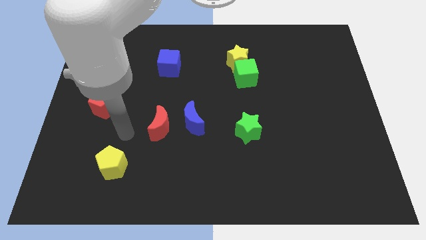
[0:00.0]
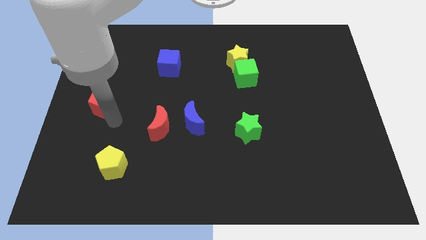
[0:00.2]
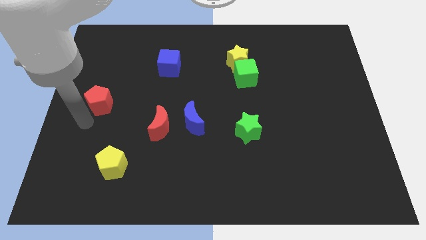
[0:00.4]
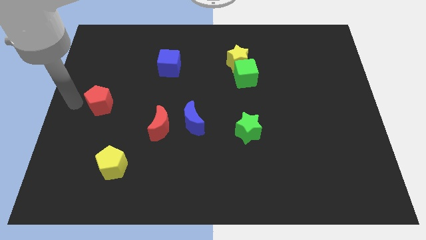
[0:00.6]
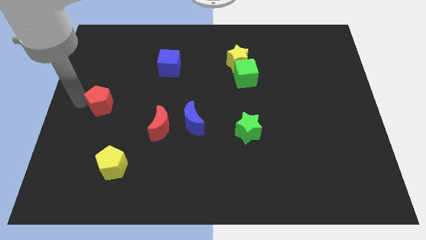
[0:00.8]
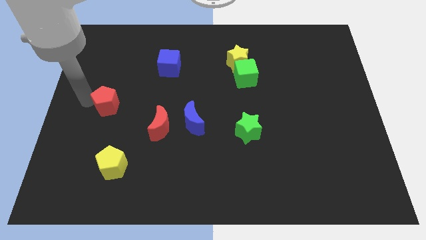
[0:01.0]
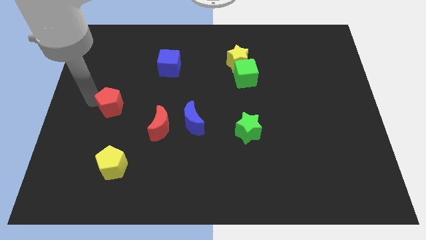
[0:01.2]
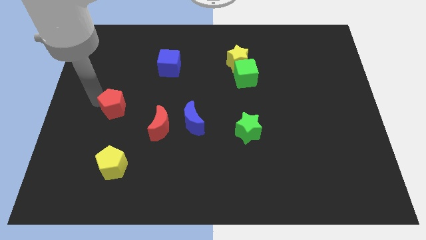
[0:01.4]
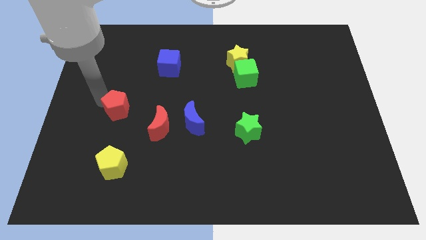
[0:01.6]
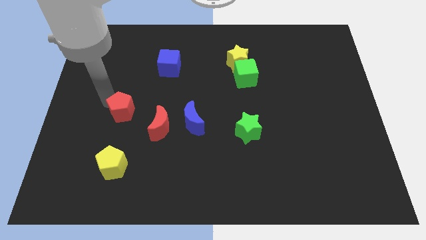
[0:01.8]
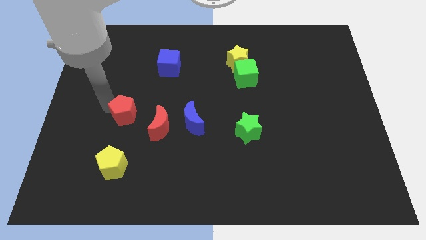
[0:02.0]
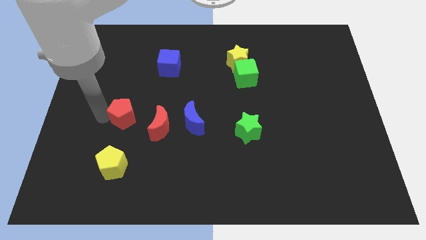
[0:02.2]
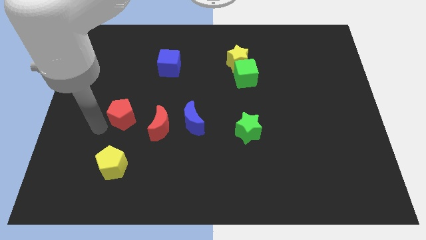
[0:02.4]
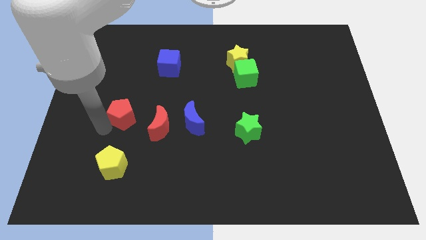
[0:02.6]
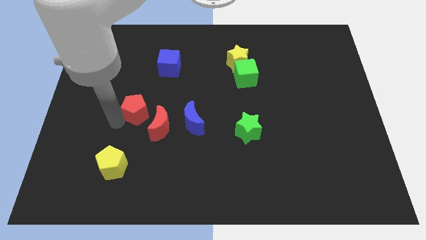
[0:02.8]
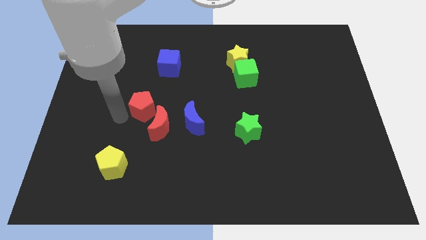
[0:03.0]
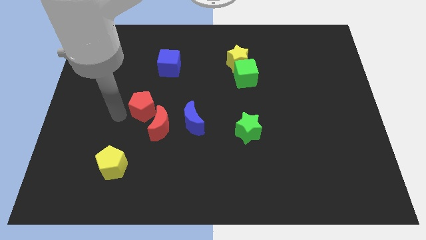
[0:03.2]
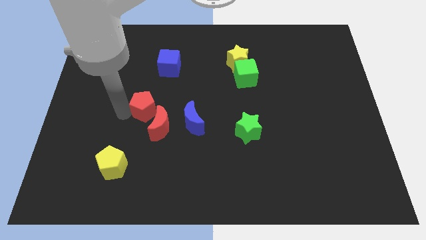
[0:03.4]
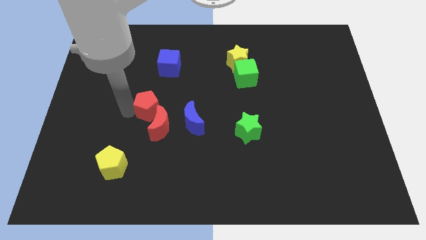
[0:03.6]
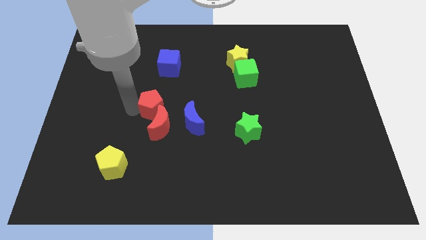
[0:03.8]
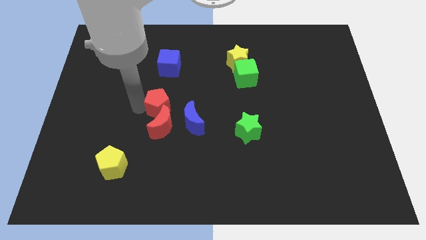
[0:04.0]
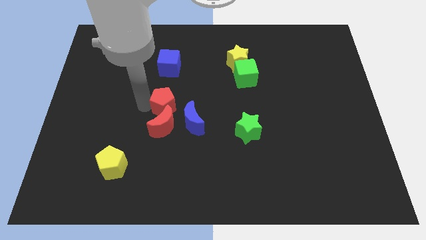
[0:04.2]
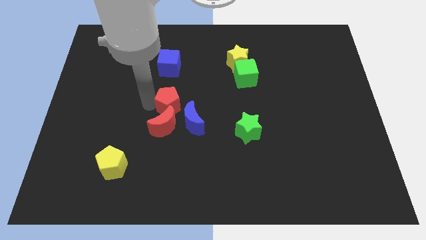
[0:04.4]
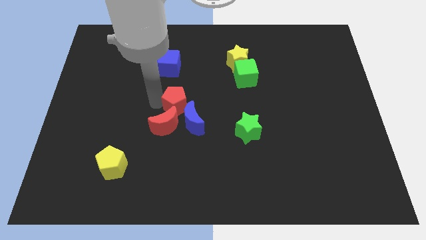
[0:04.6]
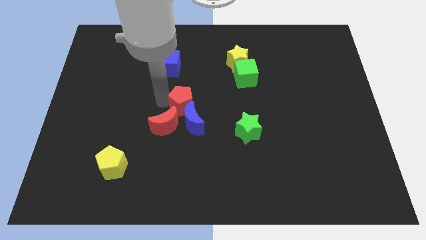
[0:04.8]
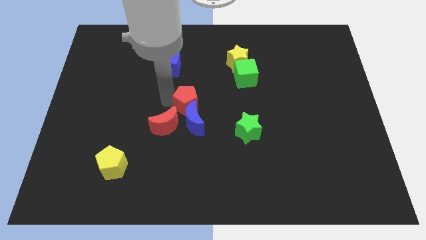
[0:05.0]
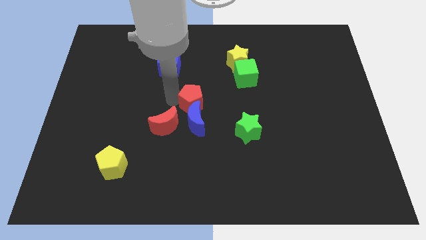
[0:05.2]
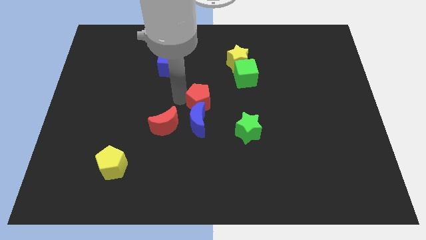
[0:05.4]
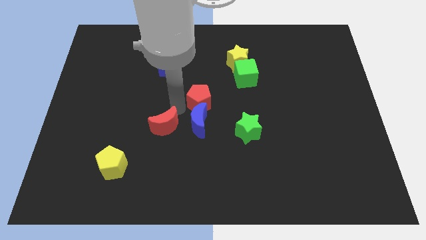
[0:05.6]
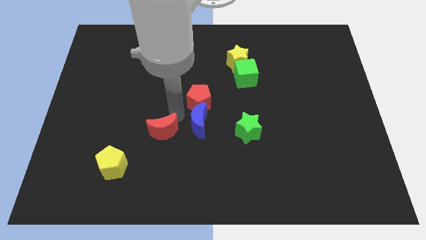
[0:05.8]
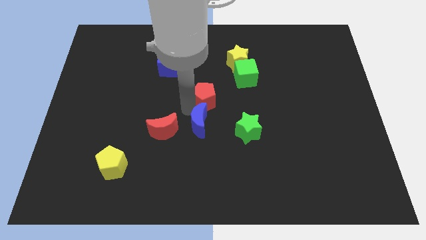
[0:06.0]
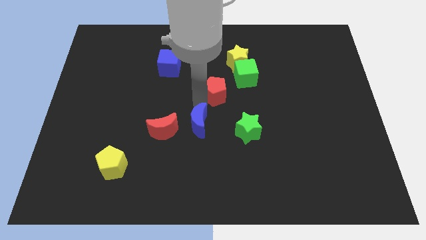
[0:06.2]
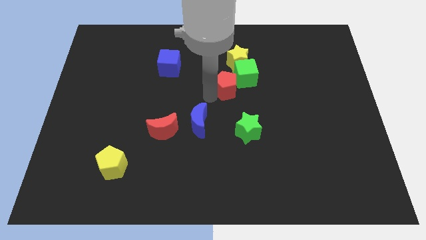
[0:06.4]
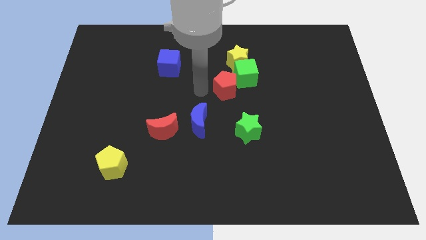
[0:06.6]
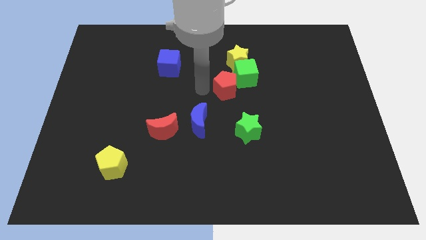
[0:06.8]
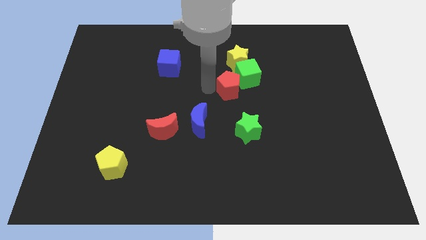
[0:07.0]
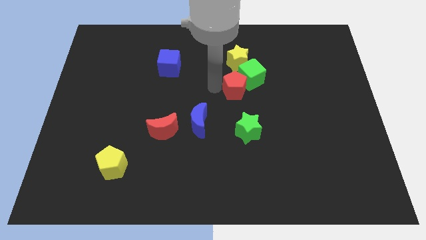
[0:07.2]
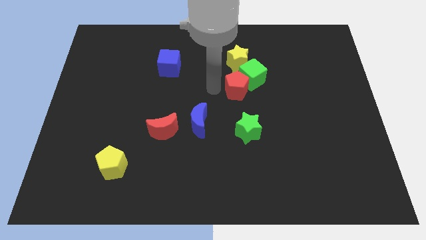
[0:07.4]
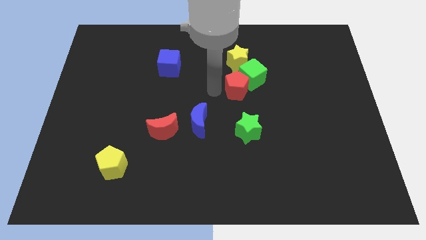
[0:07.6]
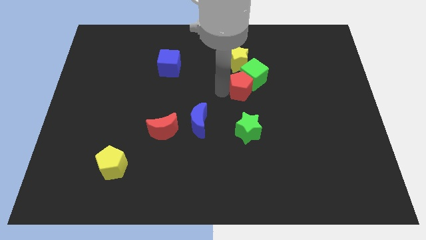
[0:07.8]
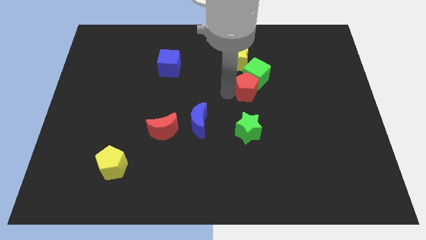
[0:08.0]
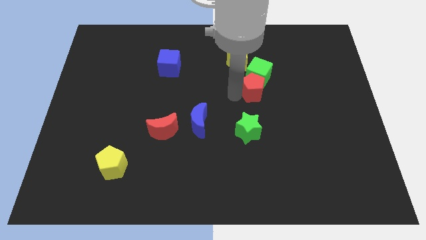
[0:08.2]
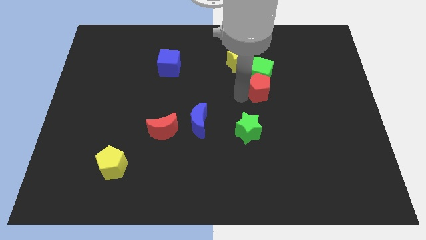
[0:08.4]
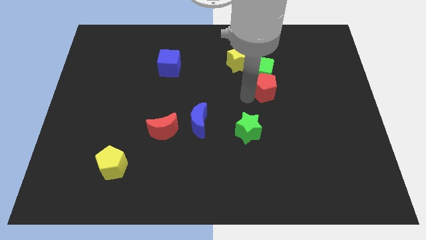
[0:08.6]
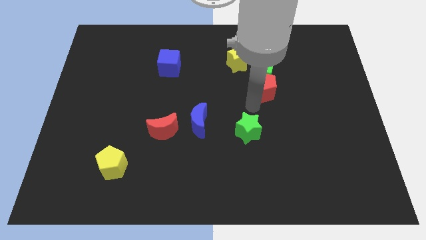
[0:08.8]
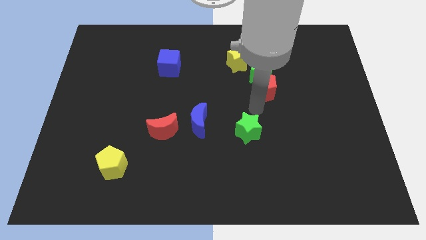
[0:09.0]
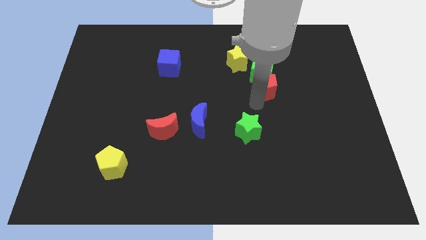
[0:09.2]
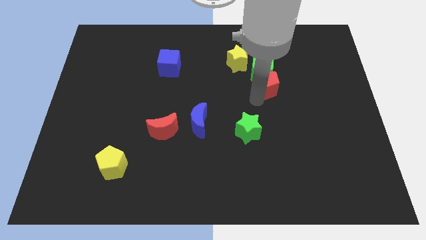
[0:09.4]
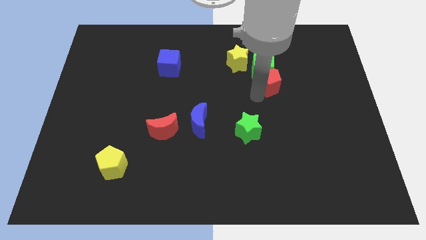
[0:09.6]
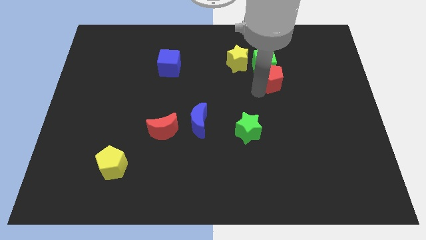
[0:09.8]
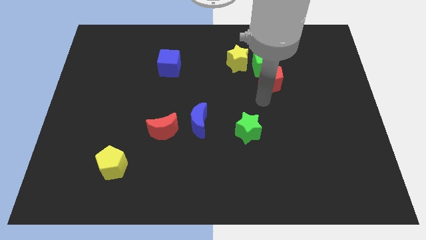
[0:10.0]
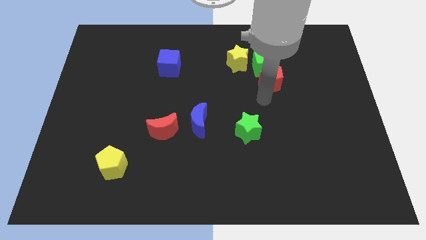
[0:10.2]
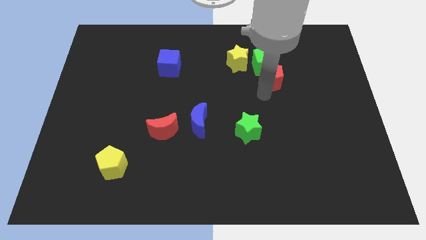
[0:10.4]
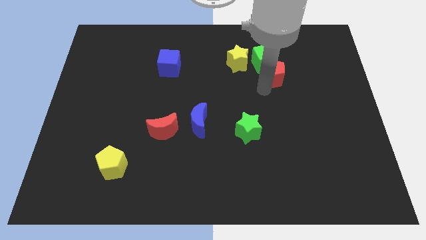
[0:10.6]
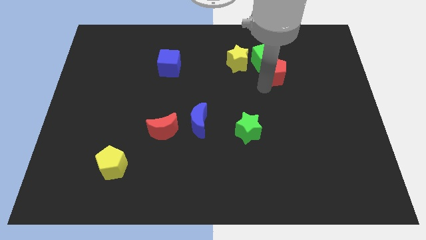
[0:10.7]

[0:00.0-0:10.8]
put the red pentagon to the right side of the yellow star

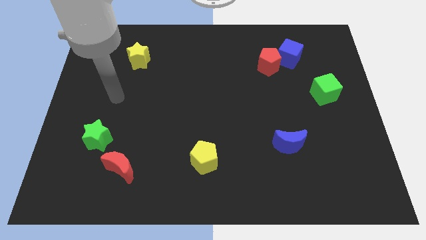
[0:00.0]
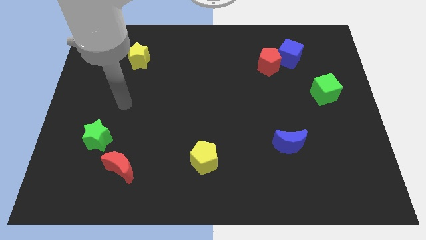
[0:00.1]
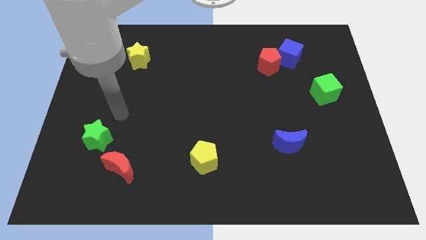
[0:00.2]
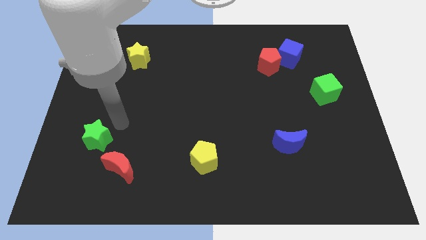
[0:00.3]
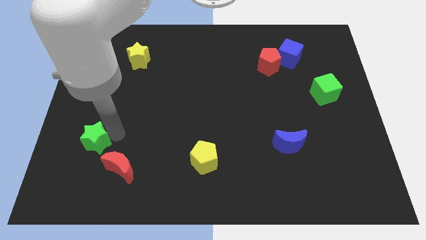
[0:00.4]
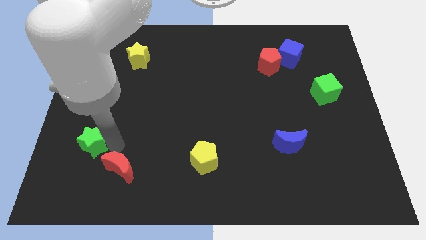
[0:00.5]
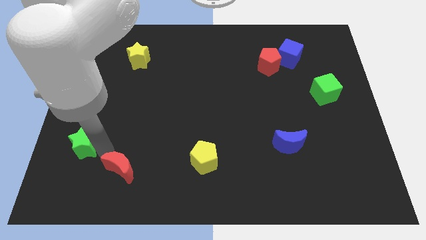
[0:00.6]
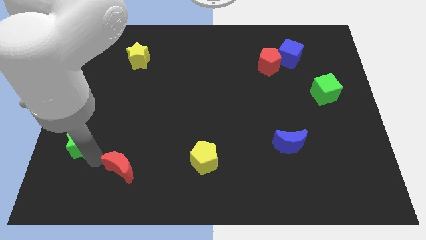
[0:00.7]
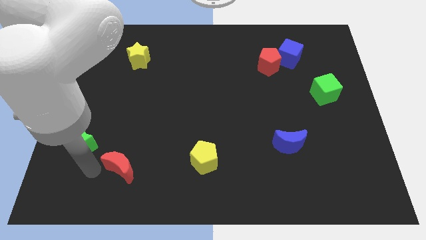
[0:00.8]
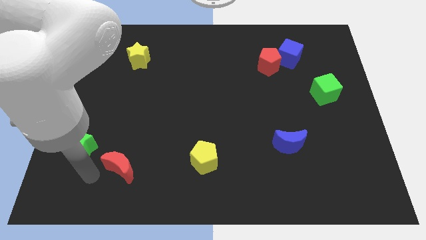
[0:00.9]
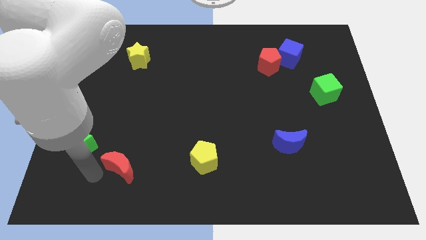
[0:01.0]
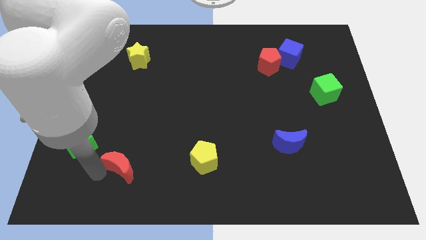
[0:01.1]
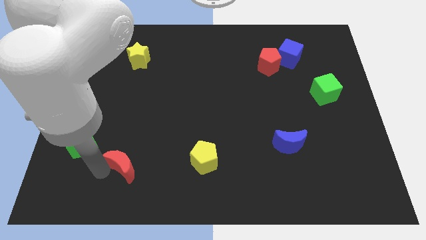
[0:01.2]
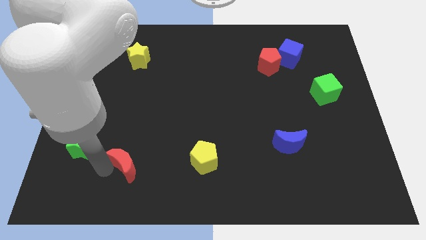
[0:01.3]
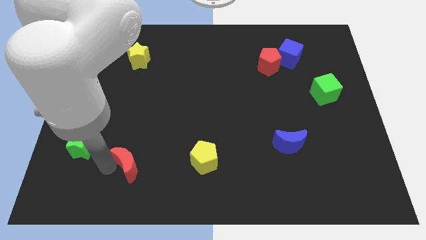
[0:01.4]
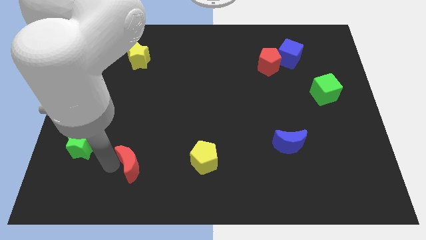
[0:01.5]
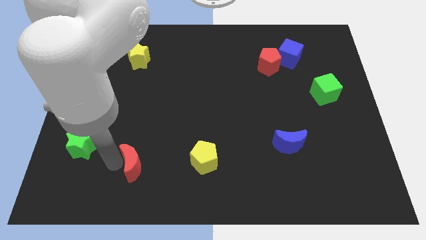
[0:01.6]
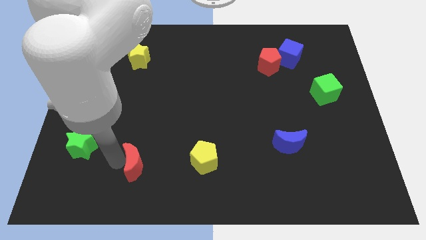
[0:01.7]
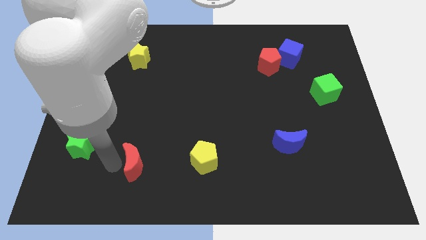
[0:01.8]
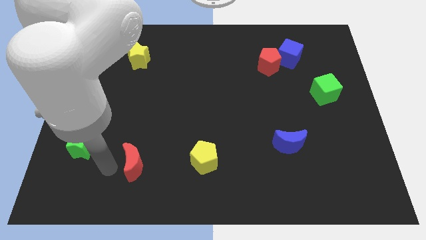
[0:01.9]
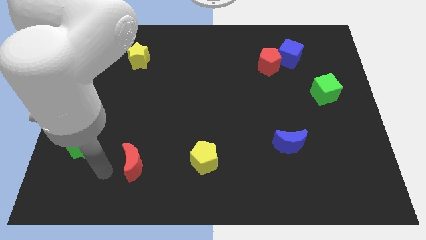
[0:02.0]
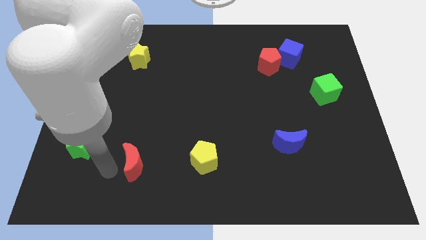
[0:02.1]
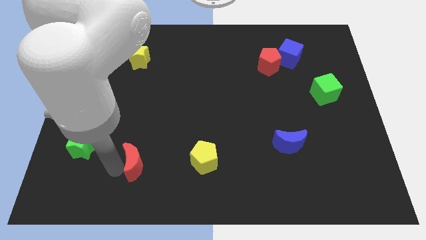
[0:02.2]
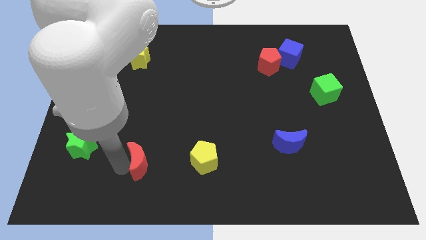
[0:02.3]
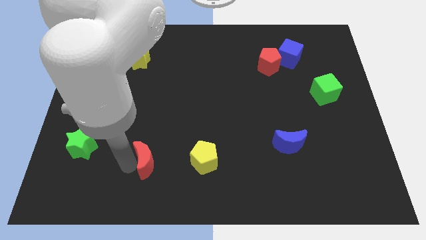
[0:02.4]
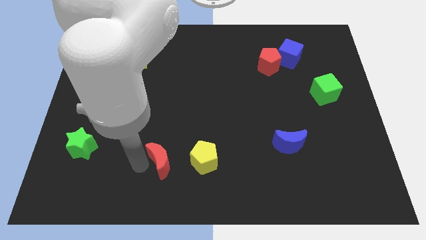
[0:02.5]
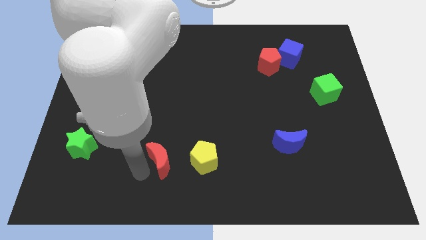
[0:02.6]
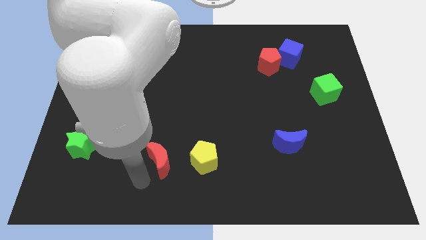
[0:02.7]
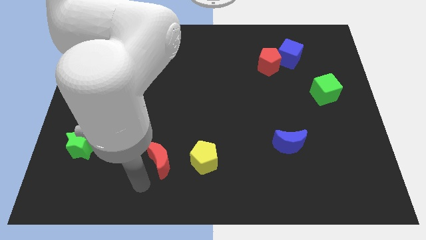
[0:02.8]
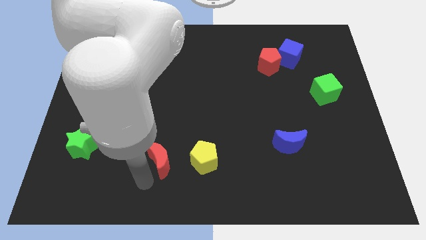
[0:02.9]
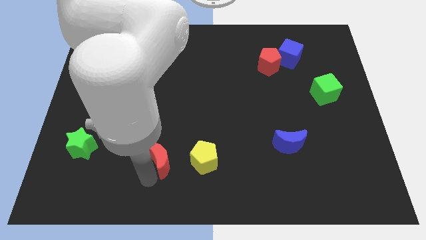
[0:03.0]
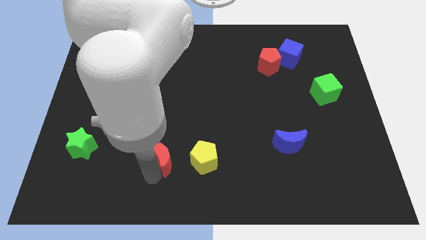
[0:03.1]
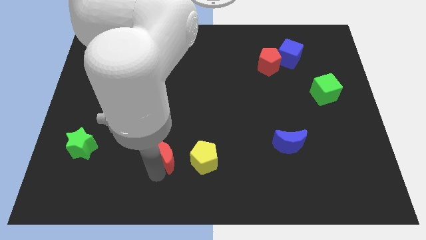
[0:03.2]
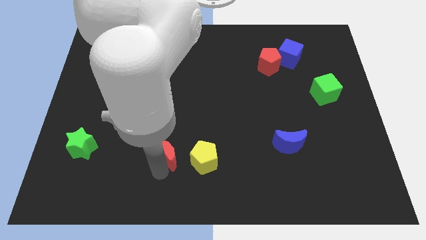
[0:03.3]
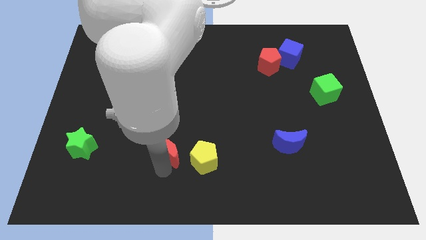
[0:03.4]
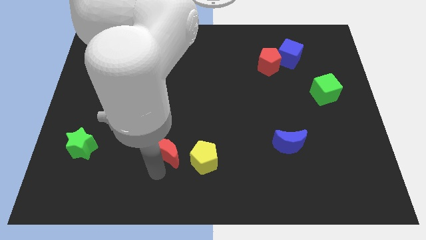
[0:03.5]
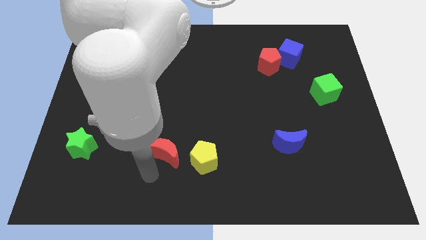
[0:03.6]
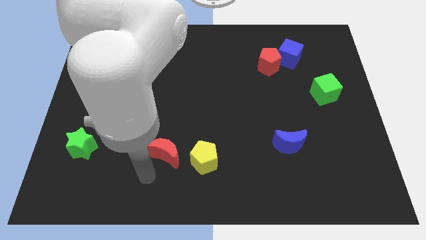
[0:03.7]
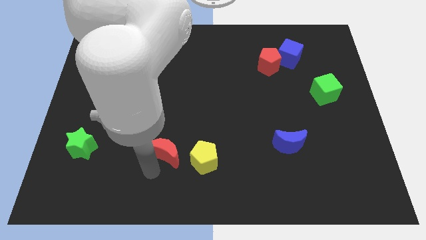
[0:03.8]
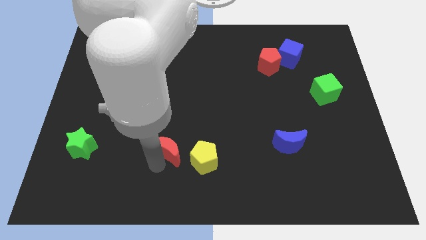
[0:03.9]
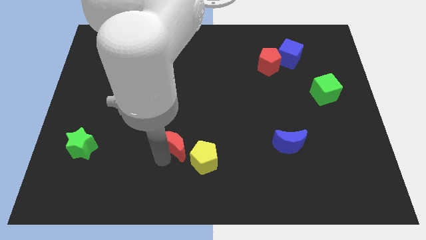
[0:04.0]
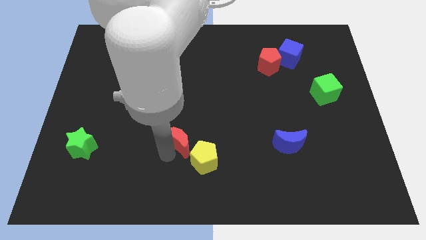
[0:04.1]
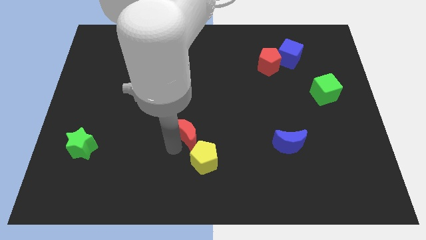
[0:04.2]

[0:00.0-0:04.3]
push the red moon to the top side of the yellow pentagon
